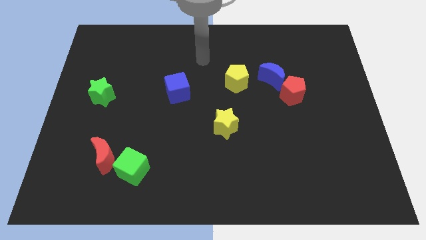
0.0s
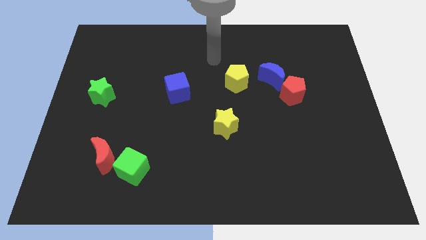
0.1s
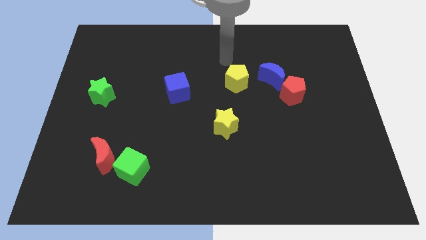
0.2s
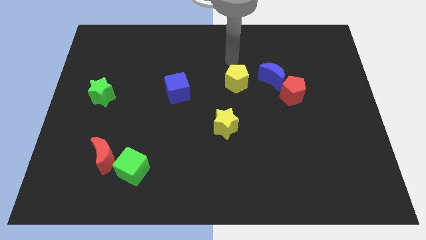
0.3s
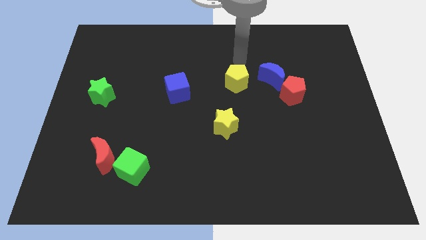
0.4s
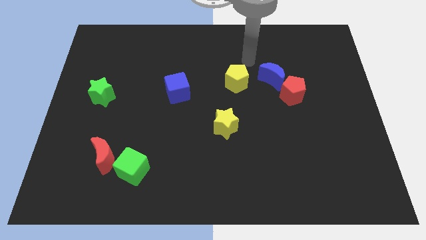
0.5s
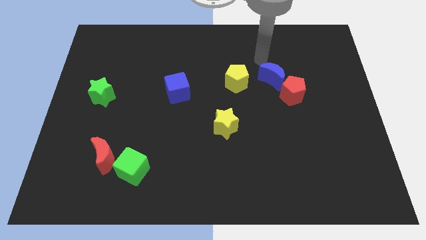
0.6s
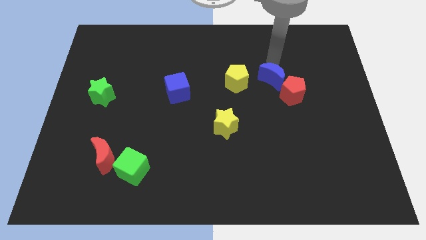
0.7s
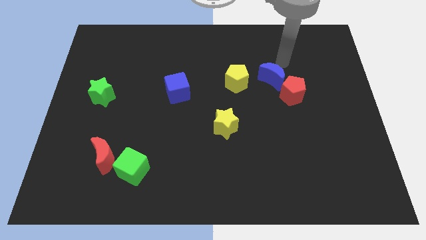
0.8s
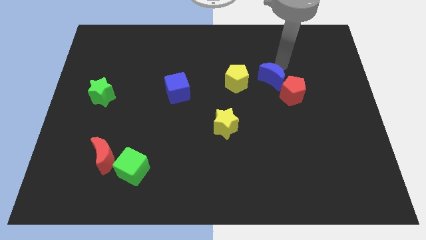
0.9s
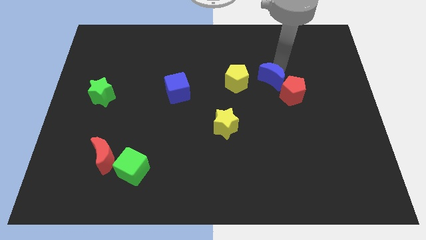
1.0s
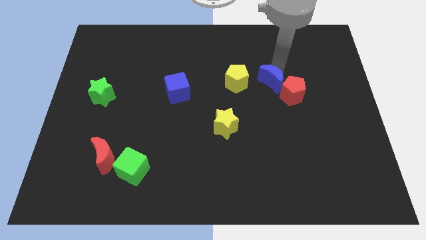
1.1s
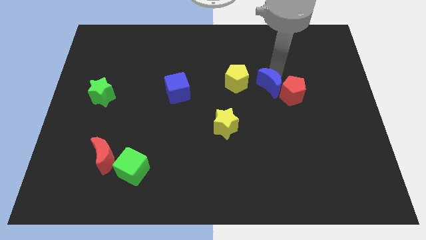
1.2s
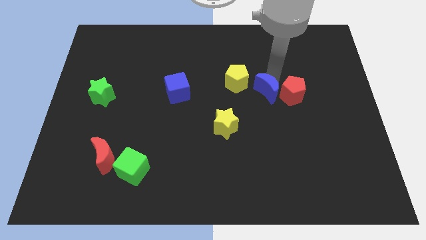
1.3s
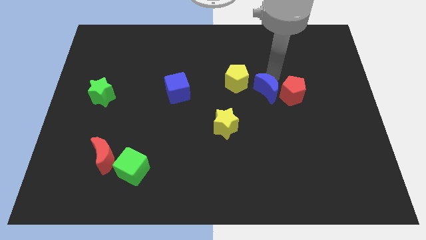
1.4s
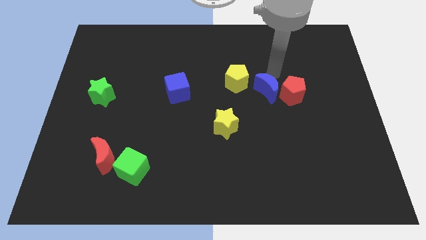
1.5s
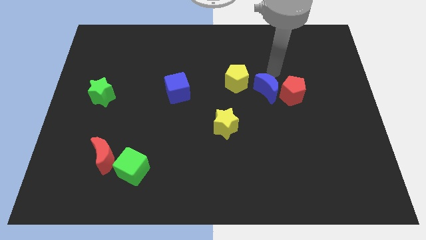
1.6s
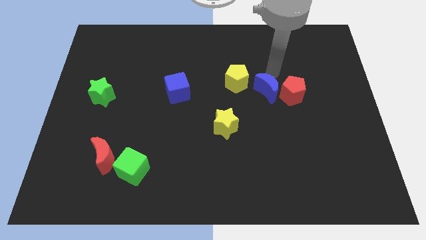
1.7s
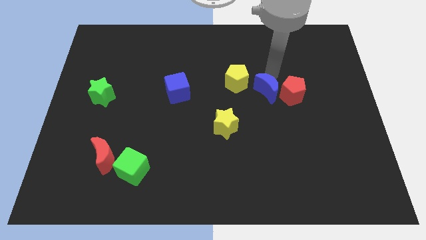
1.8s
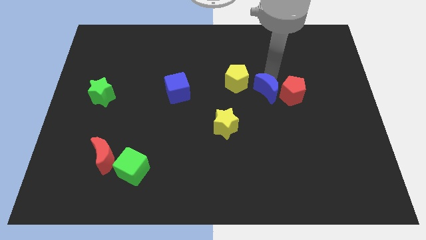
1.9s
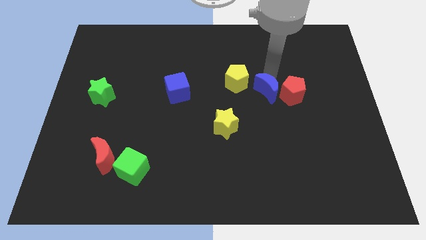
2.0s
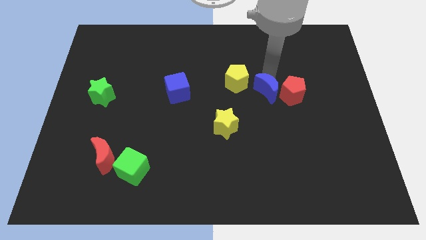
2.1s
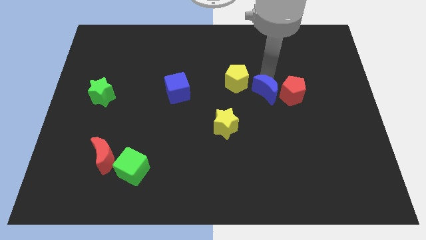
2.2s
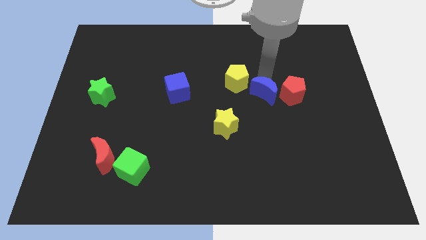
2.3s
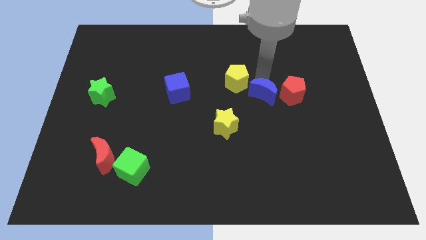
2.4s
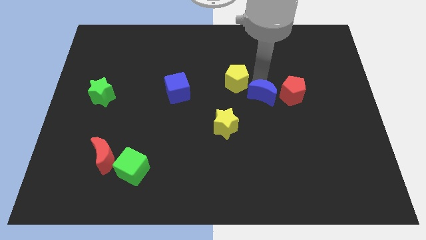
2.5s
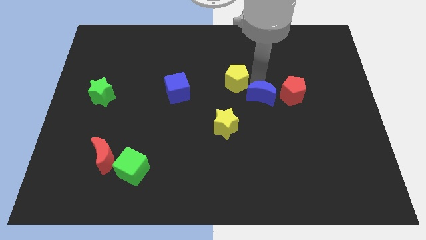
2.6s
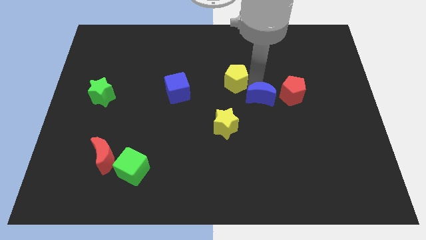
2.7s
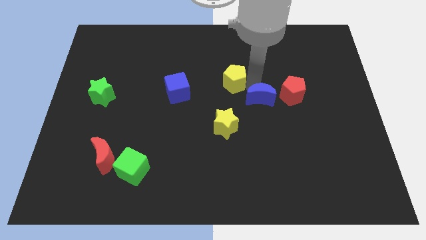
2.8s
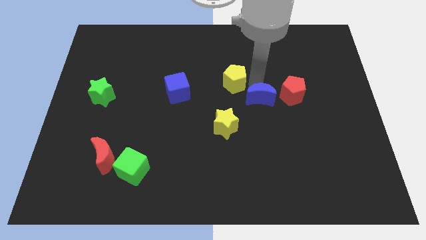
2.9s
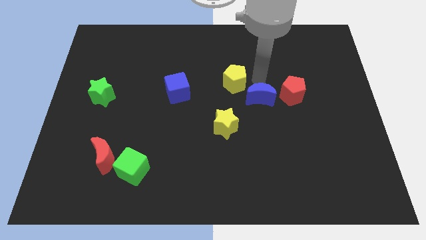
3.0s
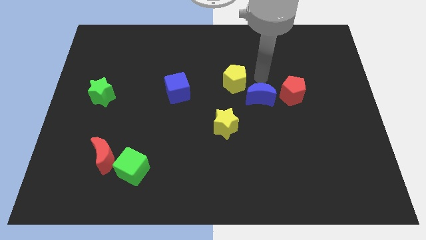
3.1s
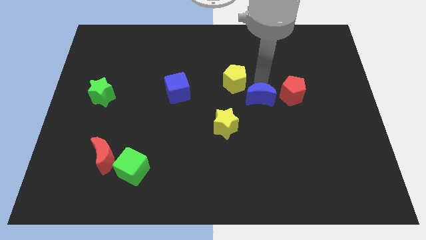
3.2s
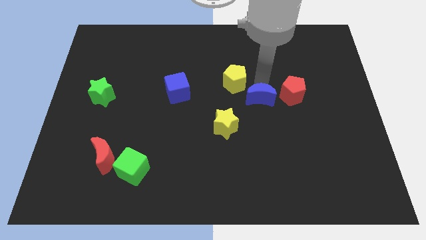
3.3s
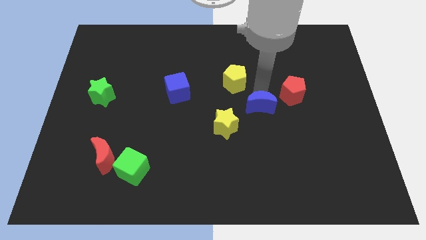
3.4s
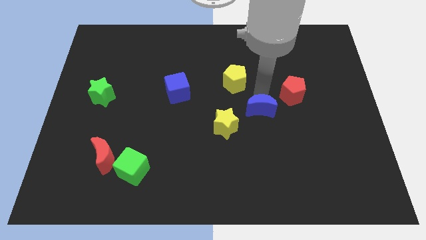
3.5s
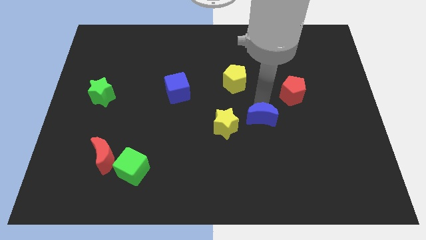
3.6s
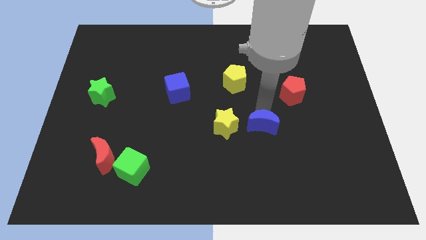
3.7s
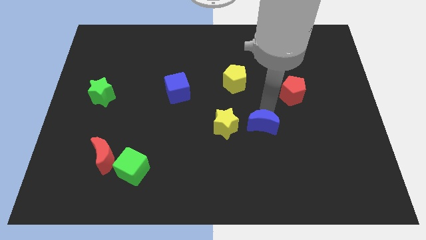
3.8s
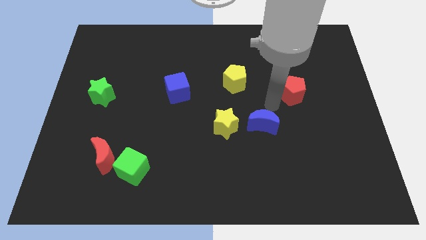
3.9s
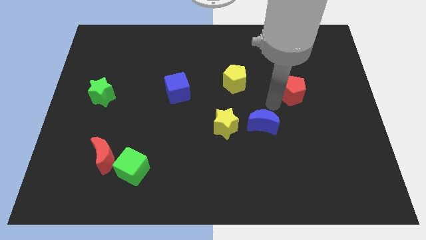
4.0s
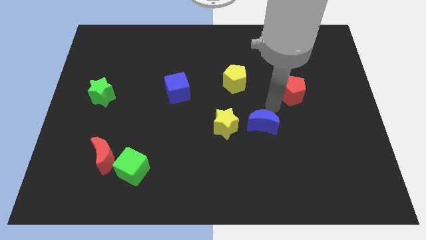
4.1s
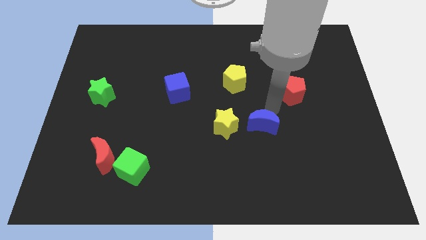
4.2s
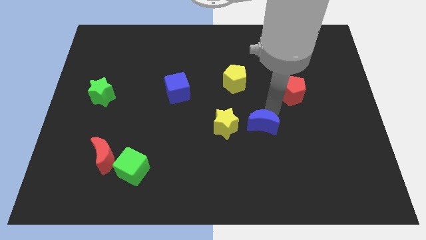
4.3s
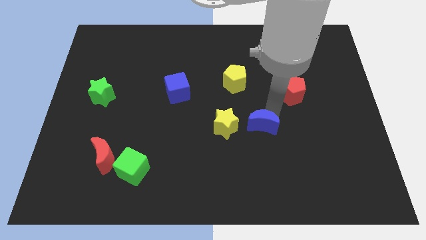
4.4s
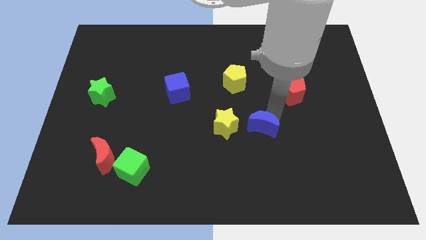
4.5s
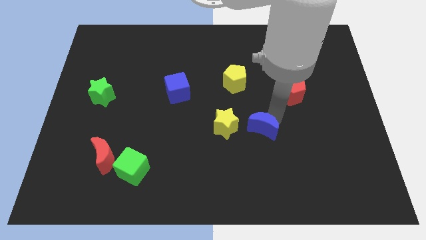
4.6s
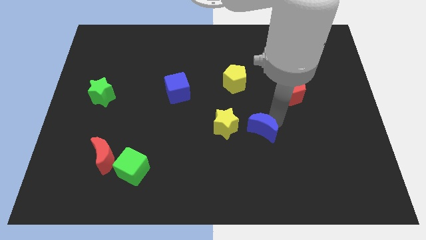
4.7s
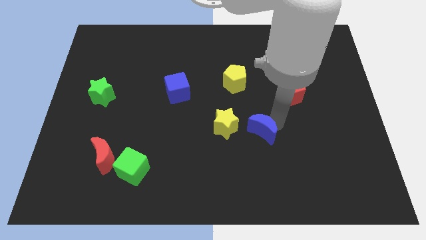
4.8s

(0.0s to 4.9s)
put the blue moon diagonally down and to the right of the yellow star

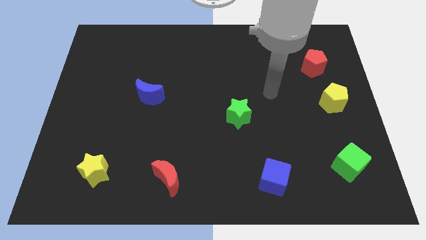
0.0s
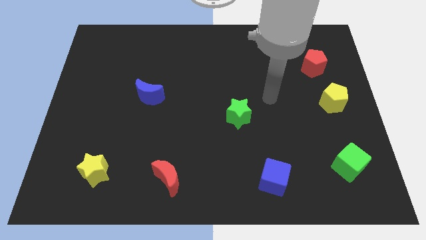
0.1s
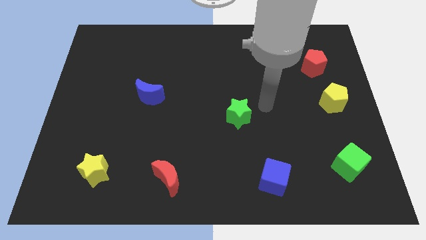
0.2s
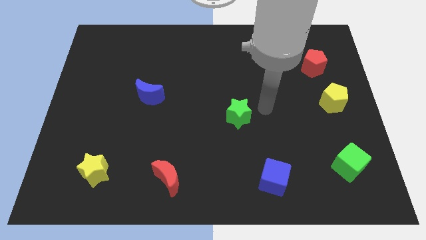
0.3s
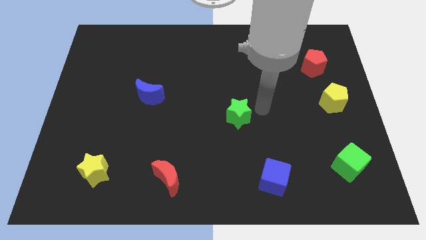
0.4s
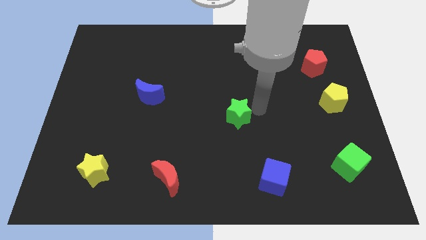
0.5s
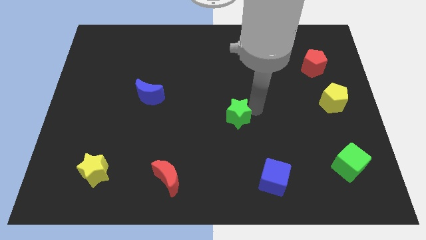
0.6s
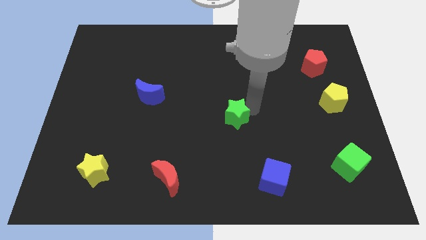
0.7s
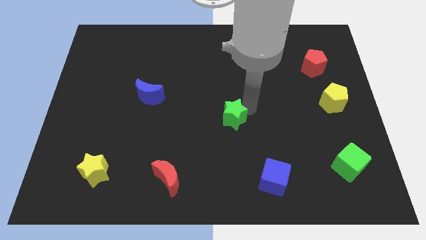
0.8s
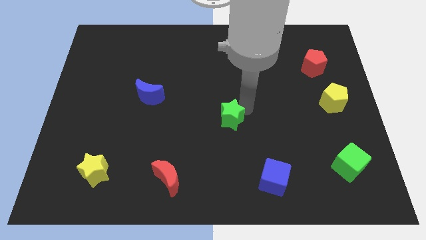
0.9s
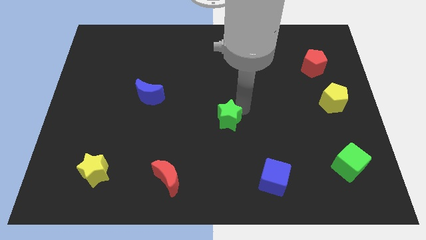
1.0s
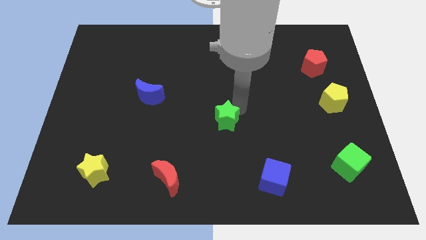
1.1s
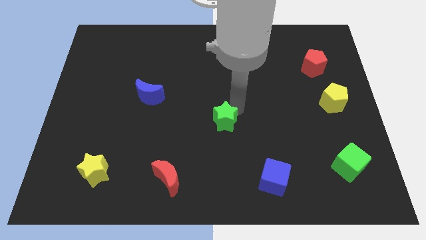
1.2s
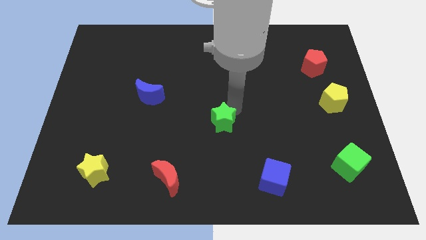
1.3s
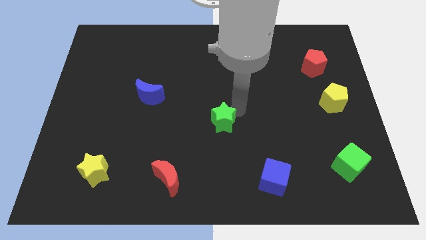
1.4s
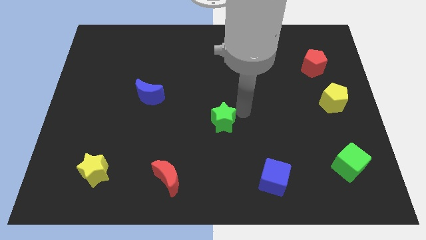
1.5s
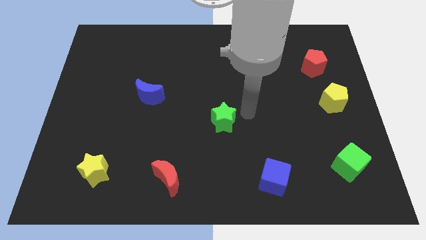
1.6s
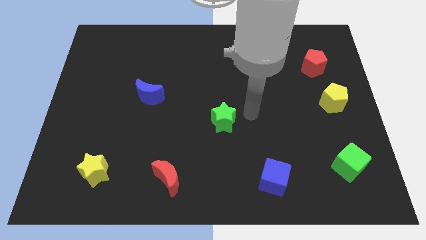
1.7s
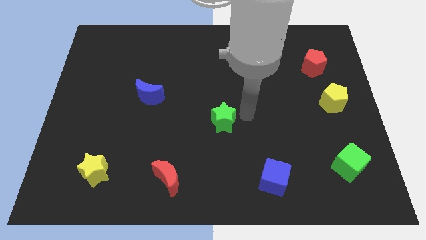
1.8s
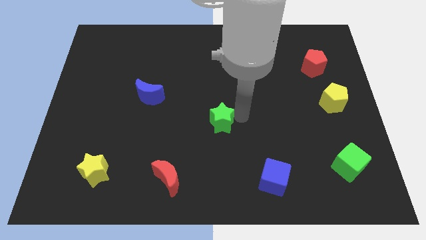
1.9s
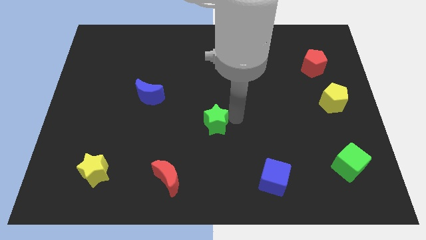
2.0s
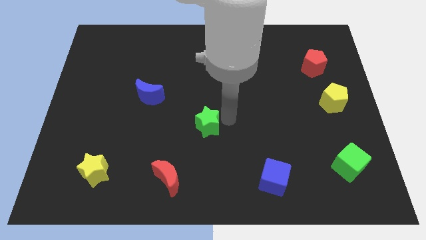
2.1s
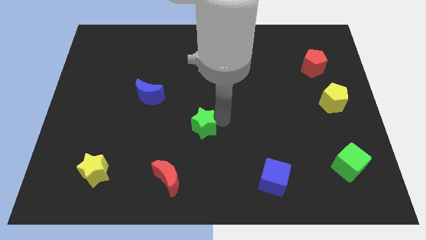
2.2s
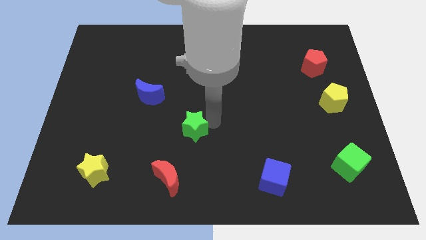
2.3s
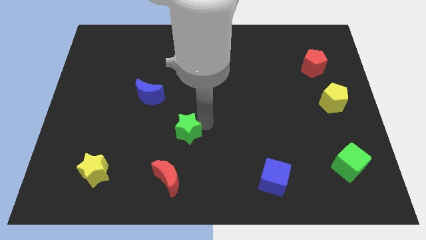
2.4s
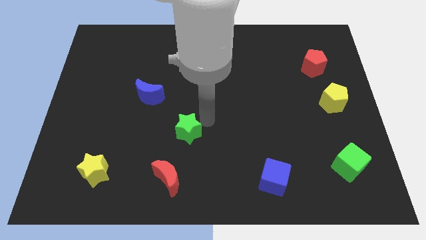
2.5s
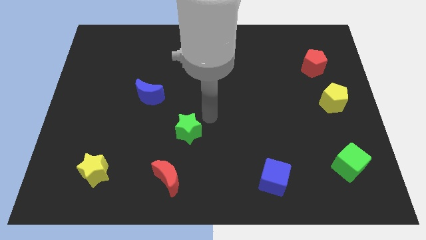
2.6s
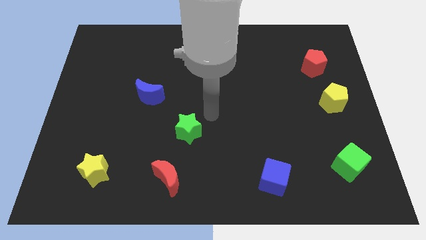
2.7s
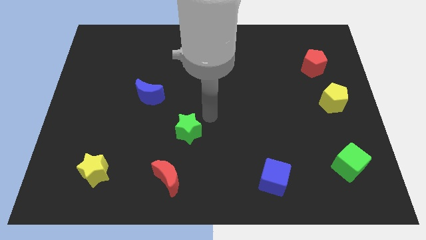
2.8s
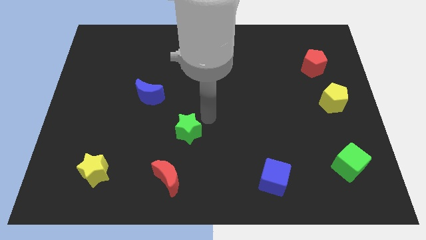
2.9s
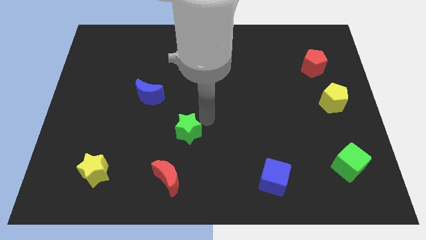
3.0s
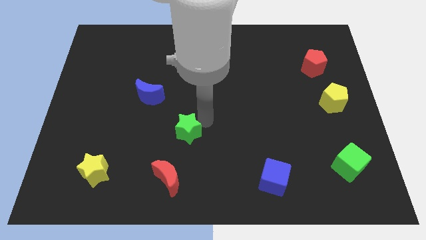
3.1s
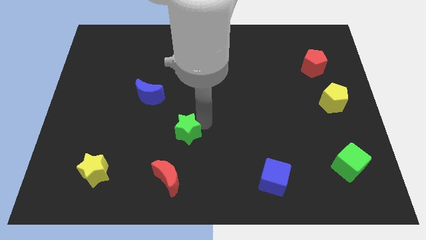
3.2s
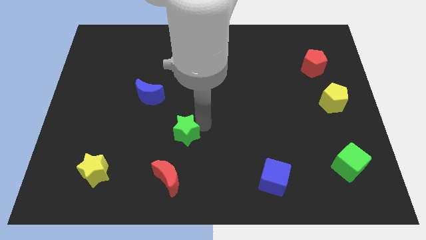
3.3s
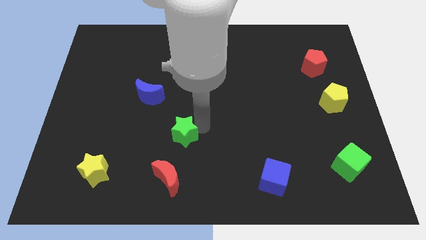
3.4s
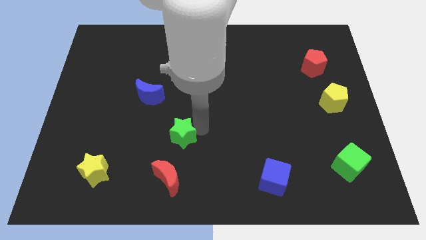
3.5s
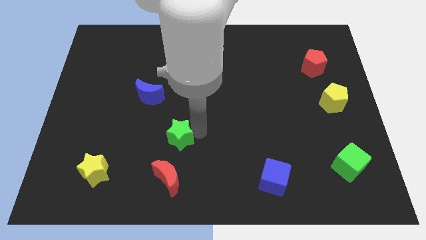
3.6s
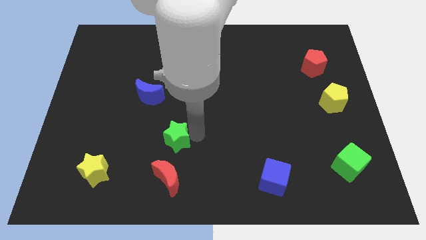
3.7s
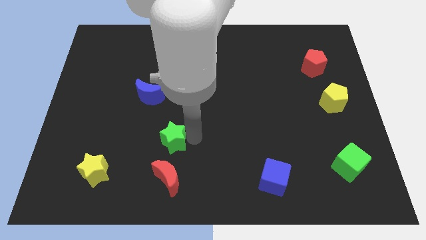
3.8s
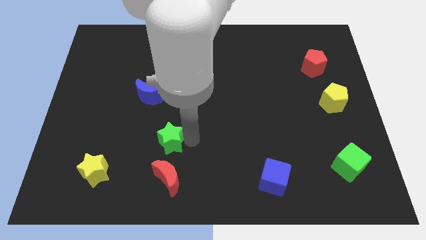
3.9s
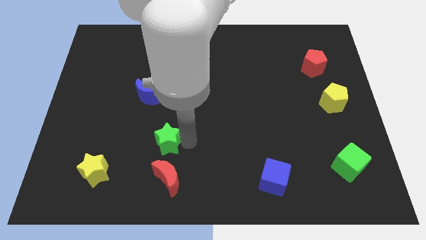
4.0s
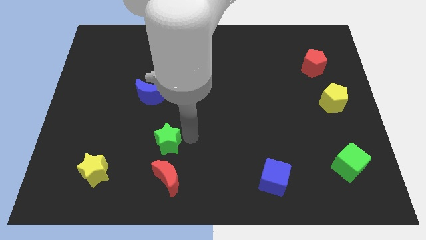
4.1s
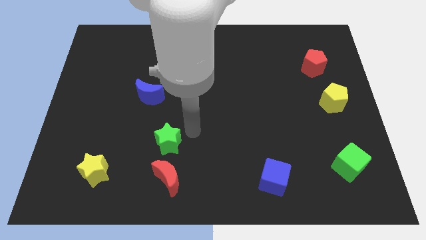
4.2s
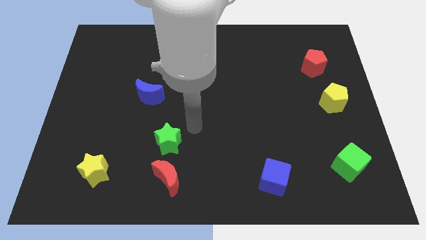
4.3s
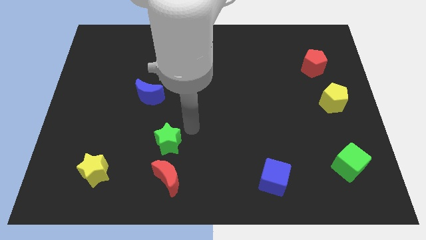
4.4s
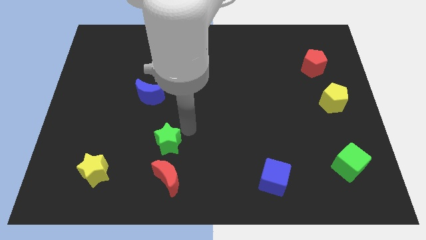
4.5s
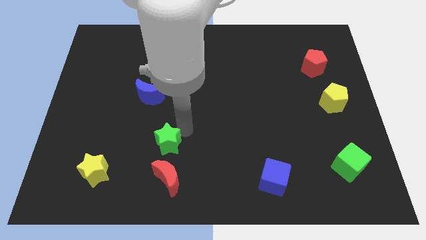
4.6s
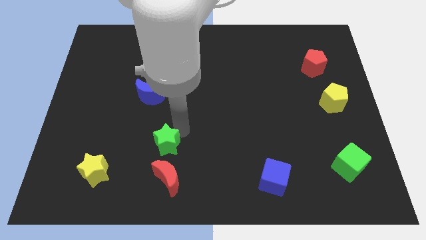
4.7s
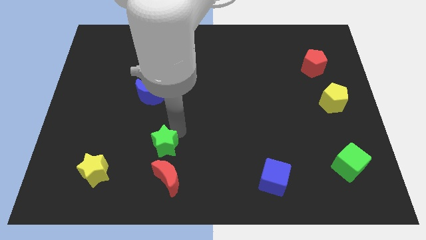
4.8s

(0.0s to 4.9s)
slide the green star diagonally up and to the left of the red moon
